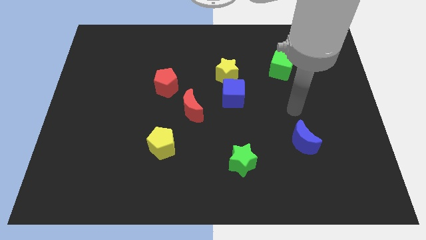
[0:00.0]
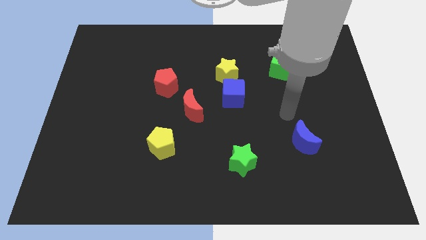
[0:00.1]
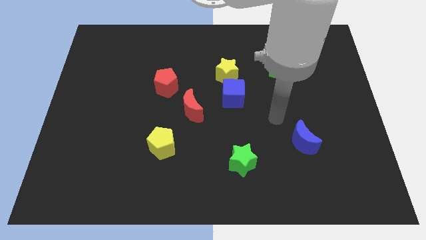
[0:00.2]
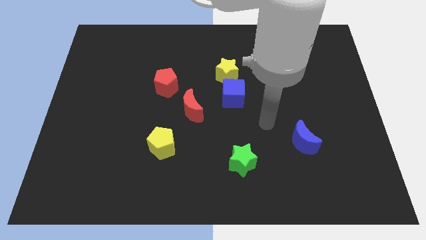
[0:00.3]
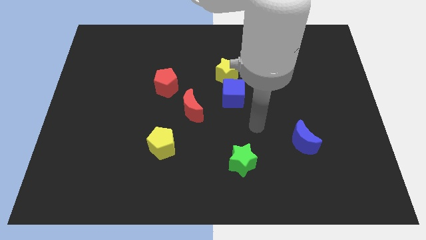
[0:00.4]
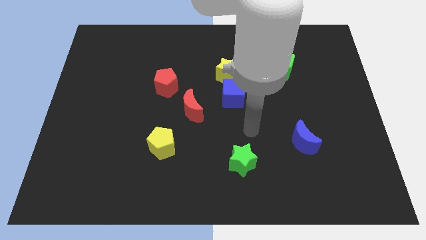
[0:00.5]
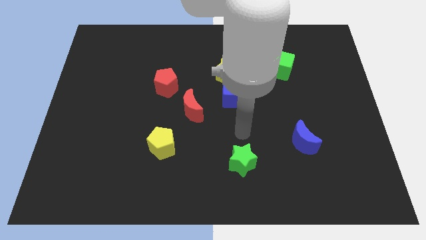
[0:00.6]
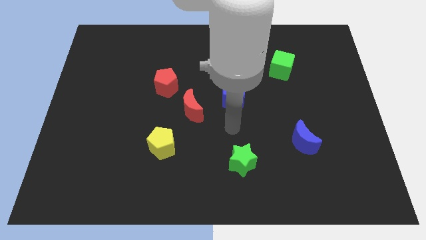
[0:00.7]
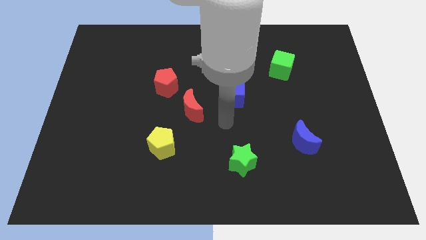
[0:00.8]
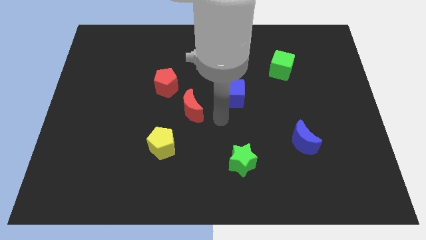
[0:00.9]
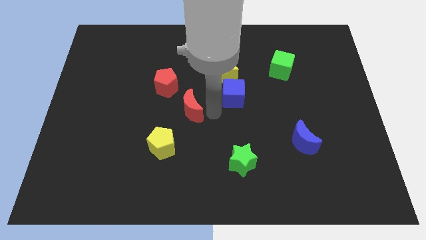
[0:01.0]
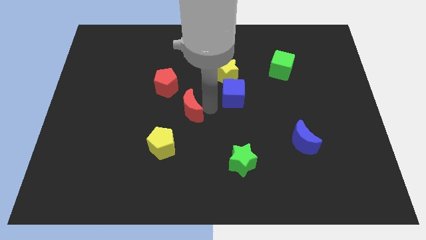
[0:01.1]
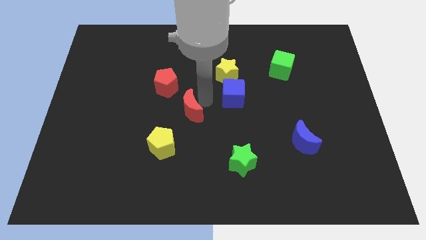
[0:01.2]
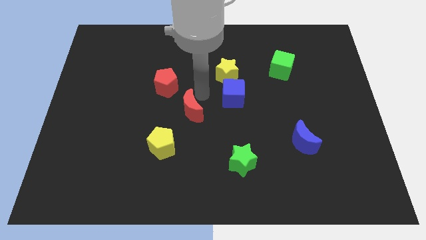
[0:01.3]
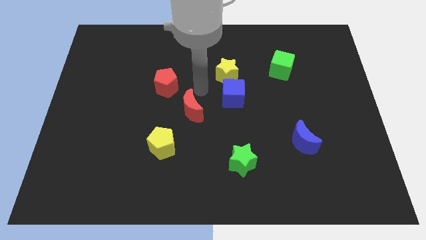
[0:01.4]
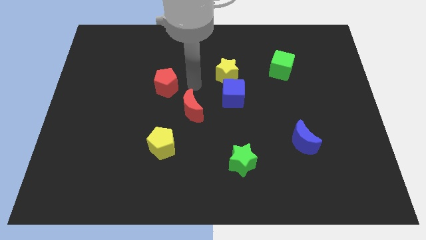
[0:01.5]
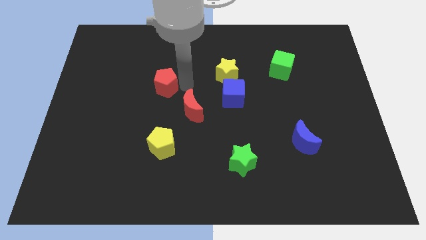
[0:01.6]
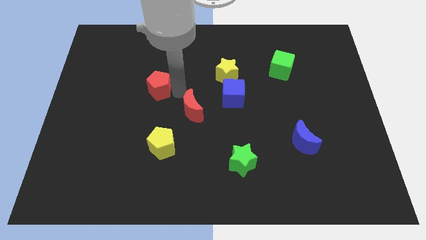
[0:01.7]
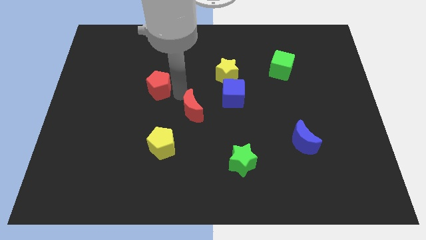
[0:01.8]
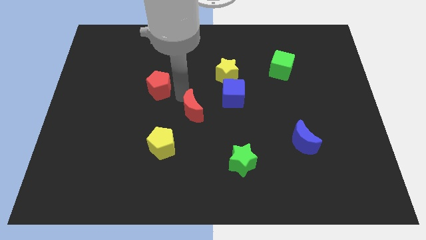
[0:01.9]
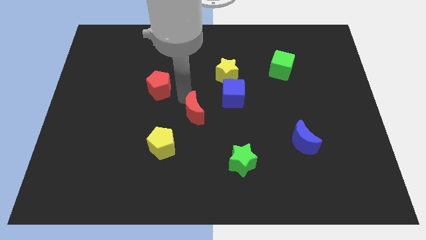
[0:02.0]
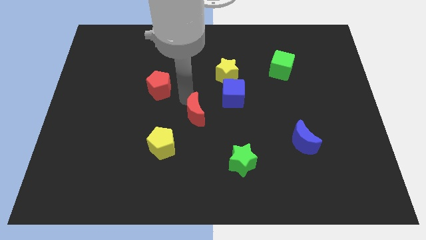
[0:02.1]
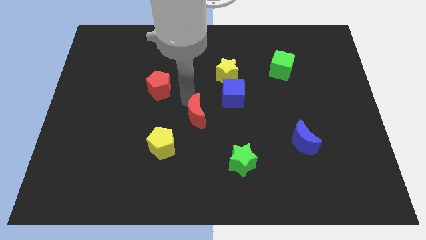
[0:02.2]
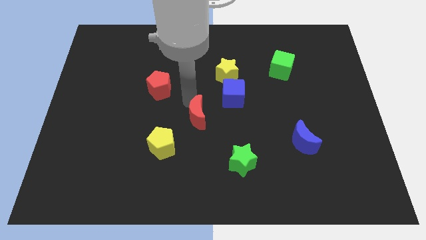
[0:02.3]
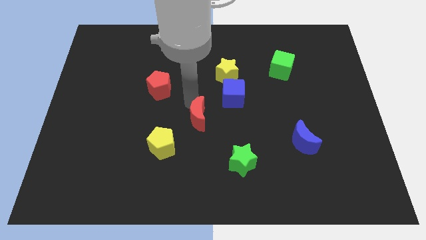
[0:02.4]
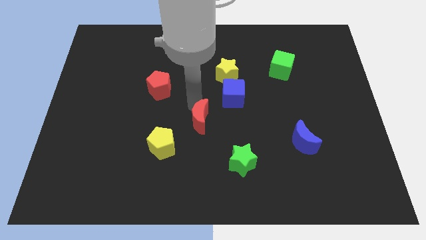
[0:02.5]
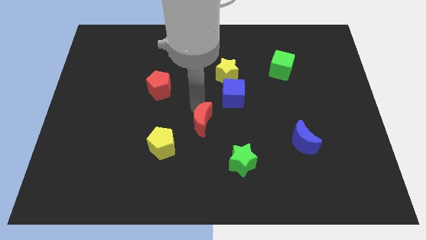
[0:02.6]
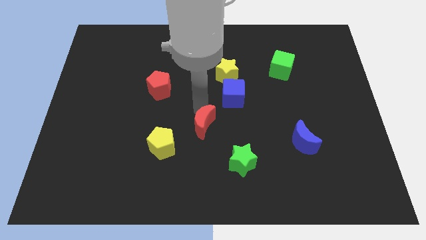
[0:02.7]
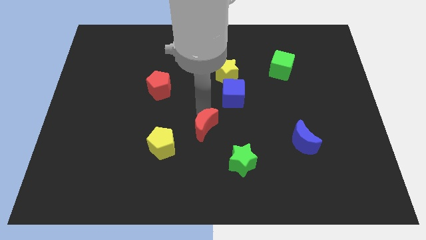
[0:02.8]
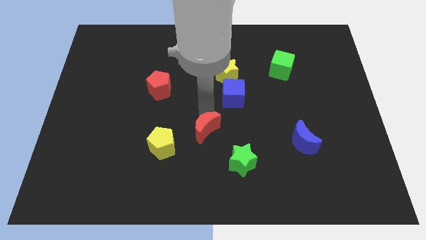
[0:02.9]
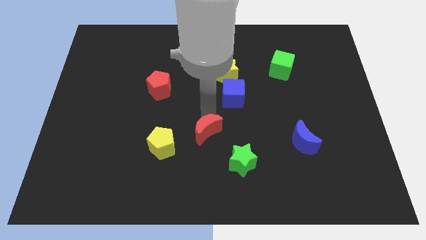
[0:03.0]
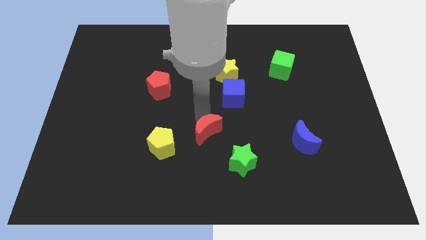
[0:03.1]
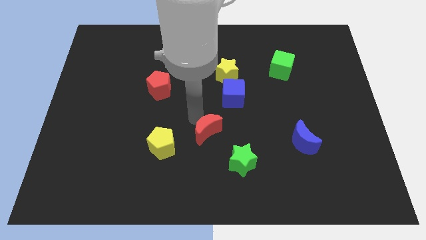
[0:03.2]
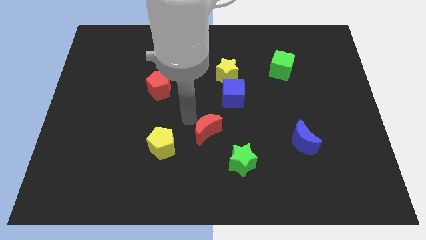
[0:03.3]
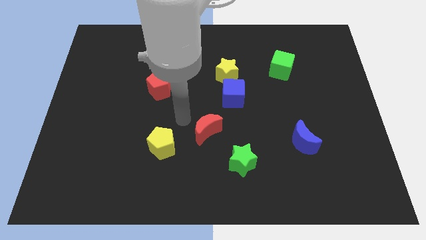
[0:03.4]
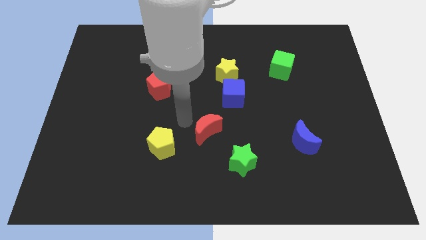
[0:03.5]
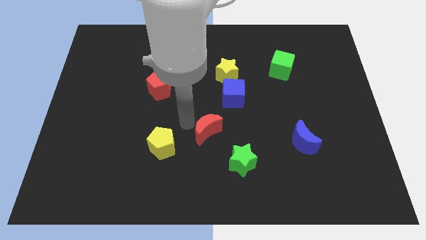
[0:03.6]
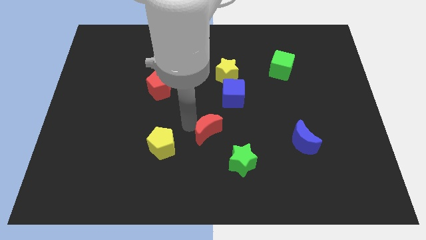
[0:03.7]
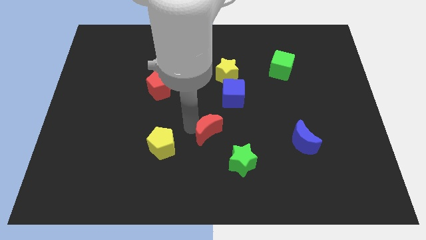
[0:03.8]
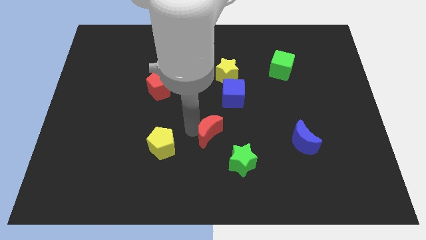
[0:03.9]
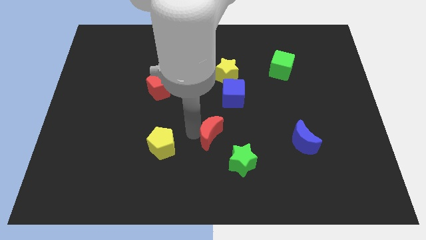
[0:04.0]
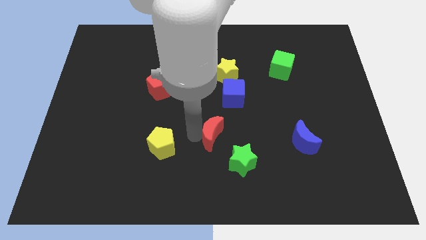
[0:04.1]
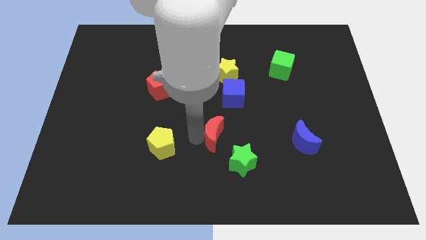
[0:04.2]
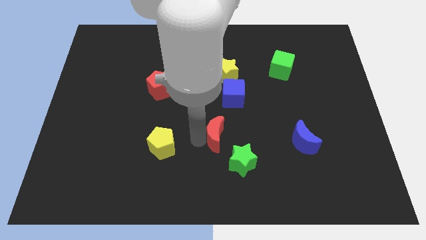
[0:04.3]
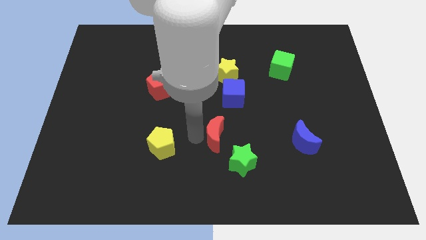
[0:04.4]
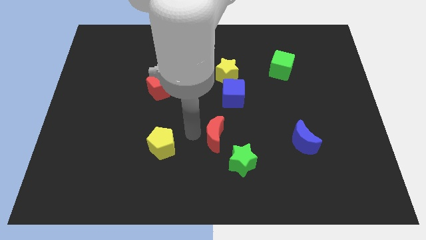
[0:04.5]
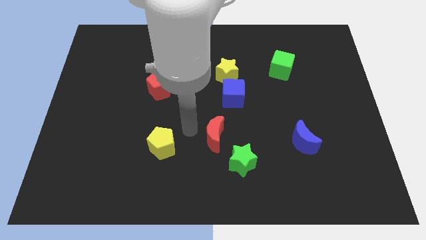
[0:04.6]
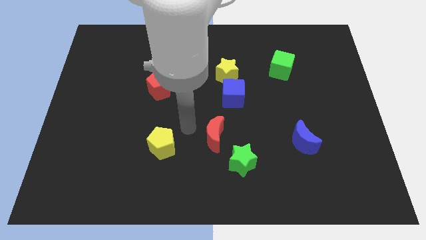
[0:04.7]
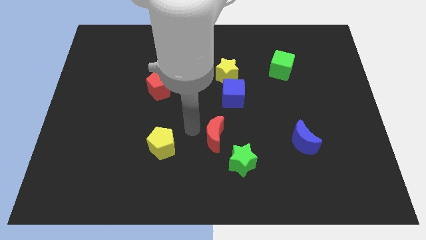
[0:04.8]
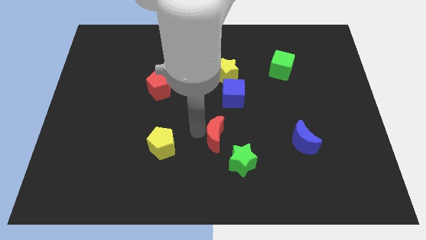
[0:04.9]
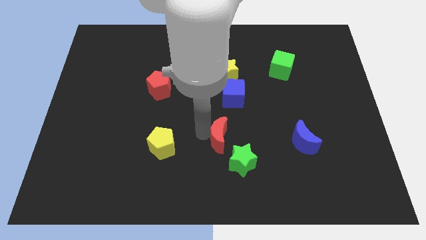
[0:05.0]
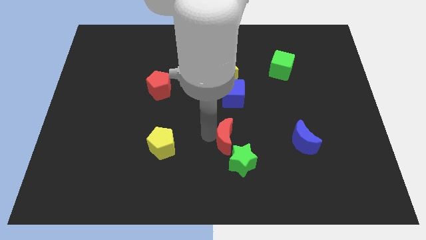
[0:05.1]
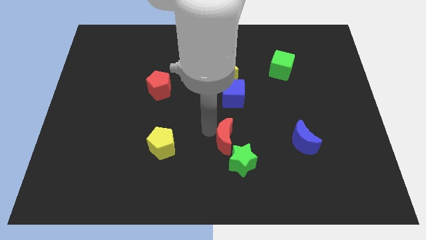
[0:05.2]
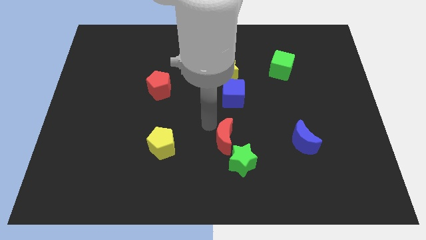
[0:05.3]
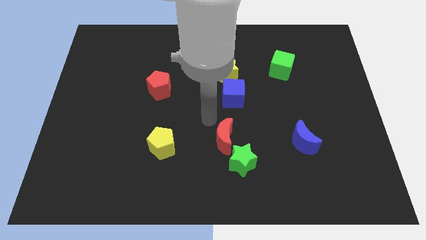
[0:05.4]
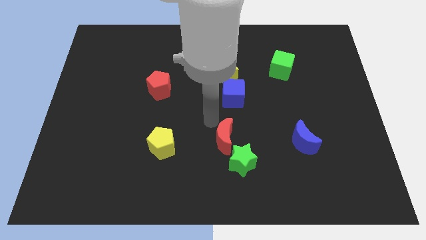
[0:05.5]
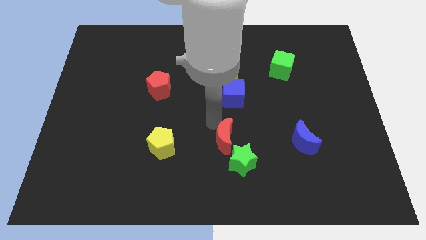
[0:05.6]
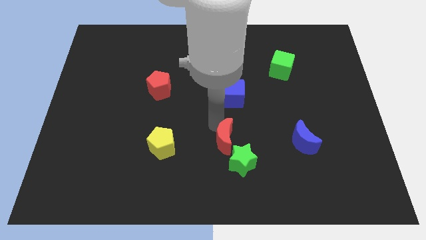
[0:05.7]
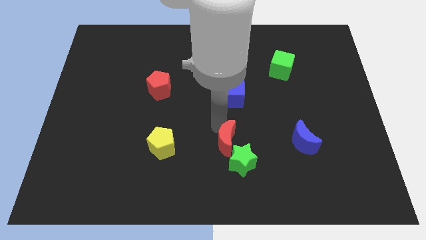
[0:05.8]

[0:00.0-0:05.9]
push the red moon to the green star

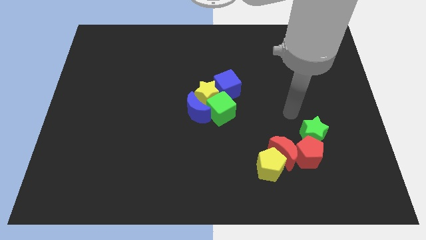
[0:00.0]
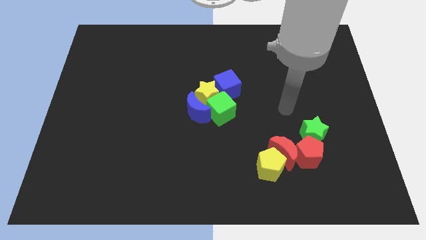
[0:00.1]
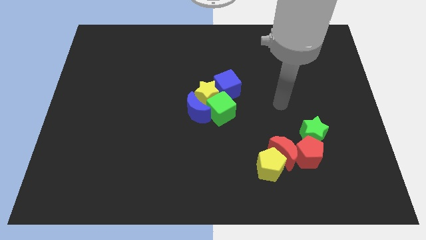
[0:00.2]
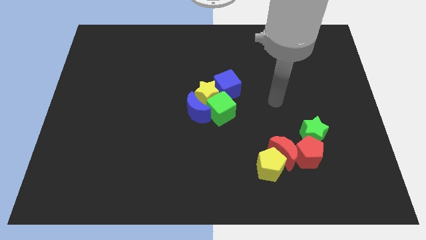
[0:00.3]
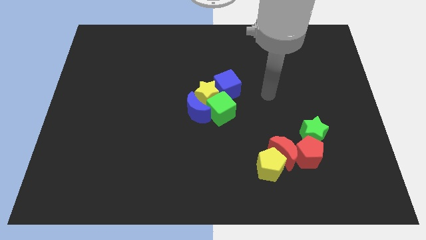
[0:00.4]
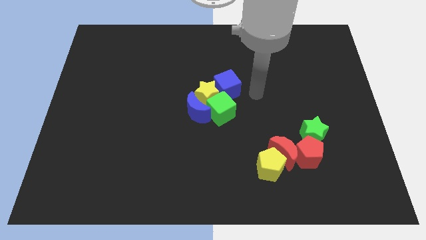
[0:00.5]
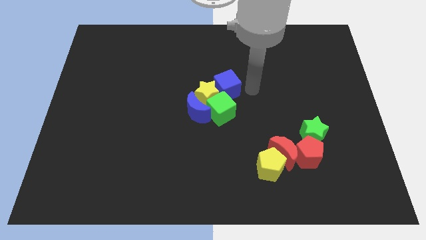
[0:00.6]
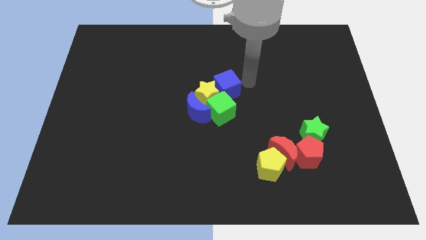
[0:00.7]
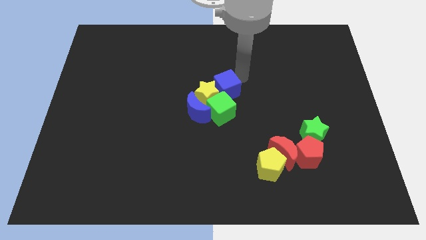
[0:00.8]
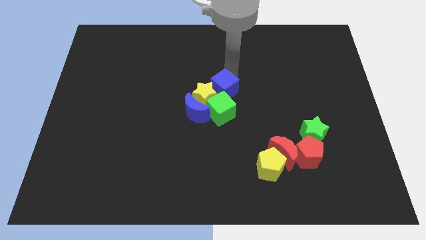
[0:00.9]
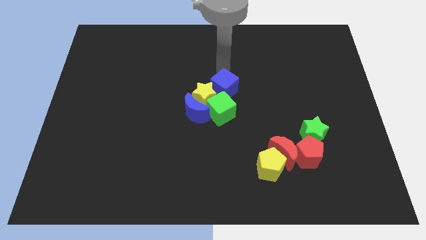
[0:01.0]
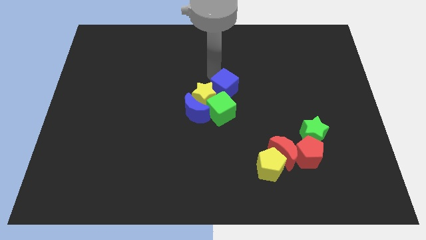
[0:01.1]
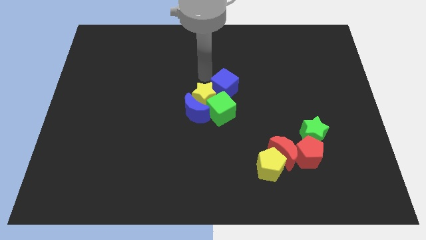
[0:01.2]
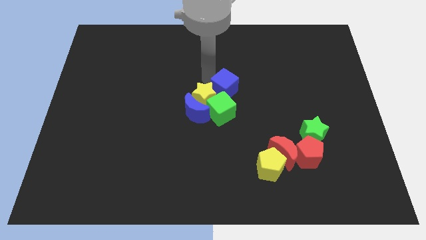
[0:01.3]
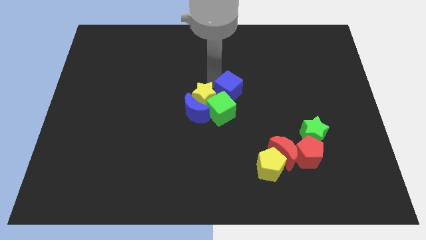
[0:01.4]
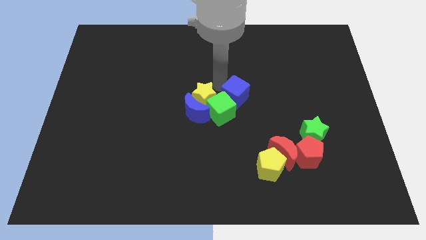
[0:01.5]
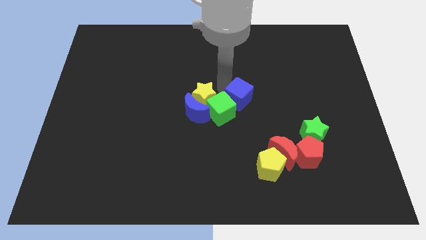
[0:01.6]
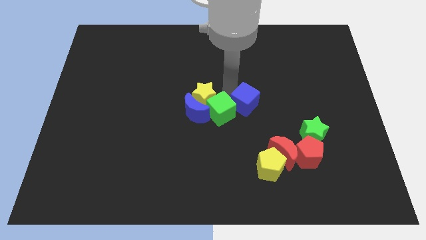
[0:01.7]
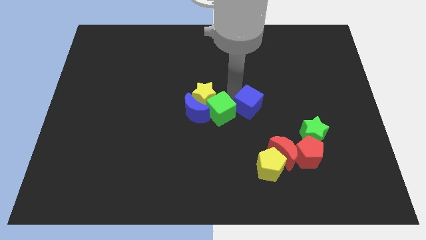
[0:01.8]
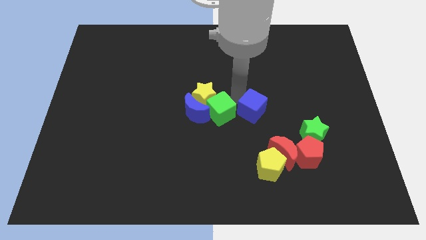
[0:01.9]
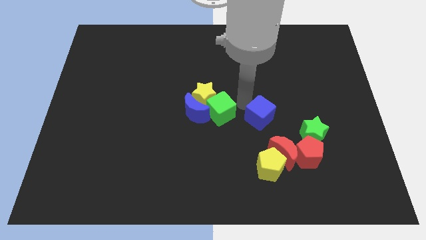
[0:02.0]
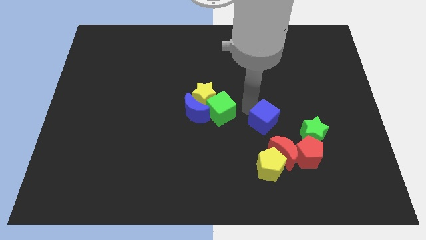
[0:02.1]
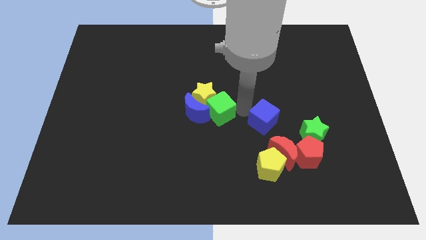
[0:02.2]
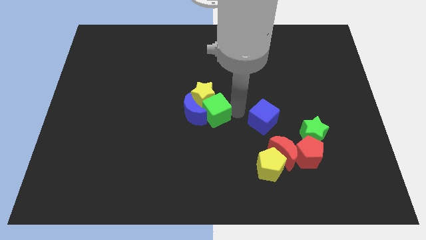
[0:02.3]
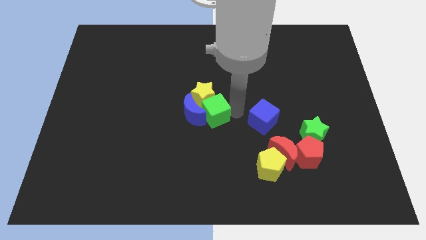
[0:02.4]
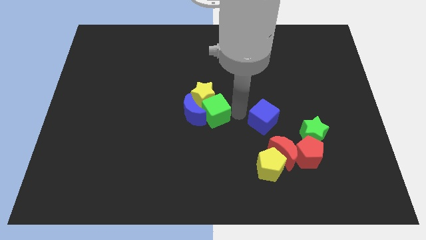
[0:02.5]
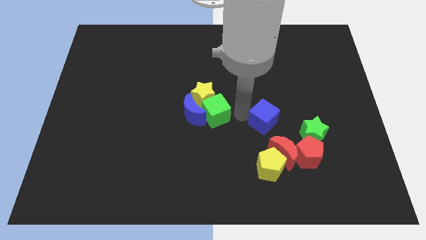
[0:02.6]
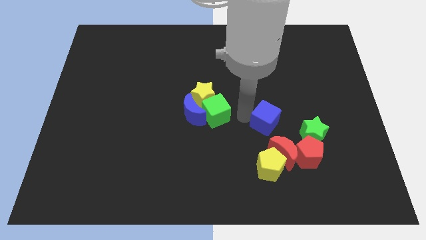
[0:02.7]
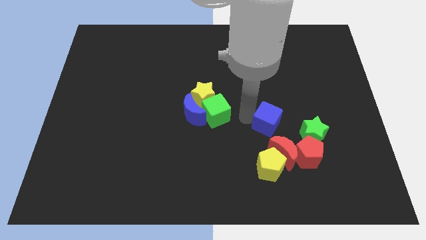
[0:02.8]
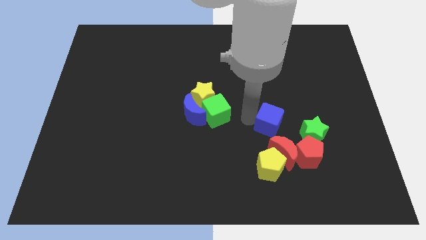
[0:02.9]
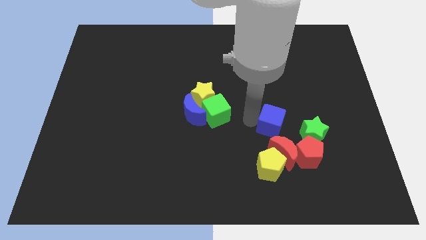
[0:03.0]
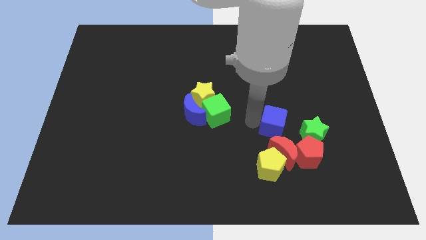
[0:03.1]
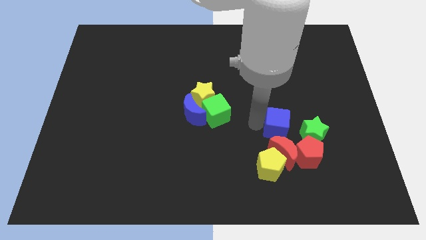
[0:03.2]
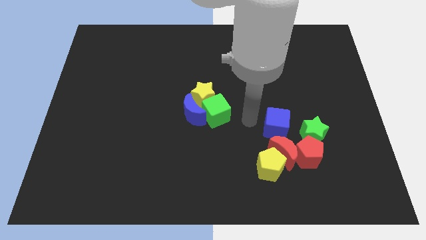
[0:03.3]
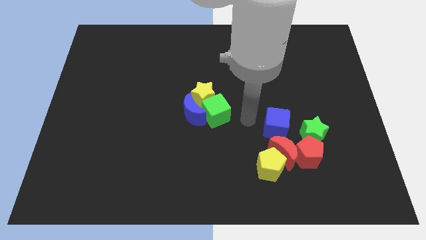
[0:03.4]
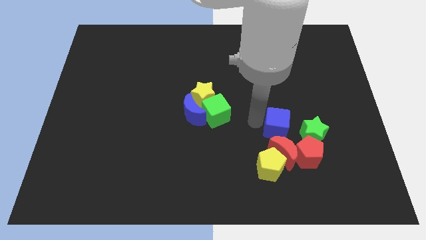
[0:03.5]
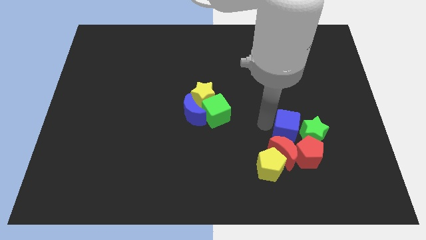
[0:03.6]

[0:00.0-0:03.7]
push the blue cube towards the green star
